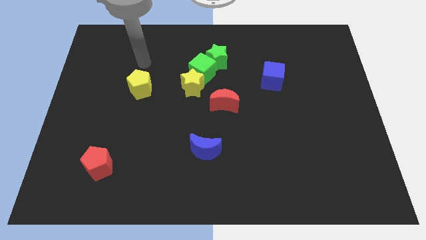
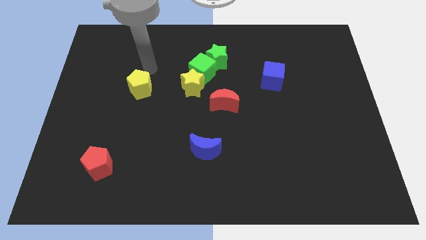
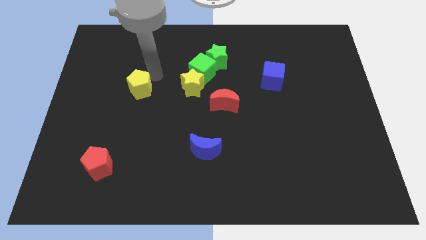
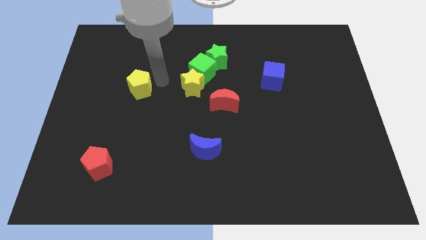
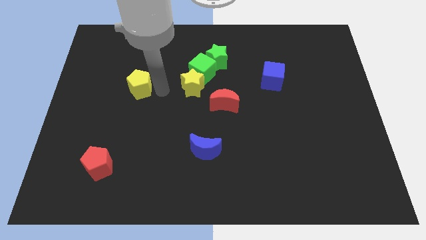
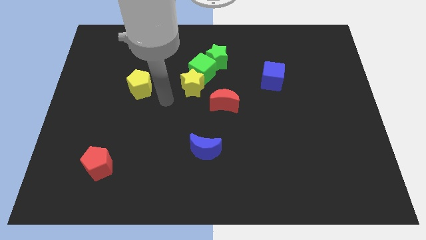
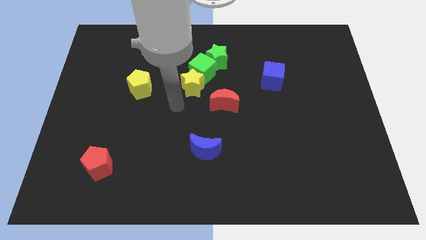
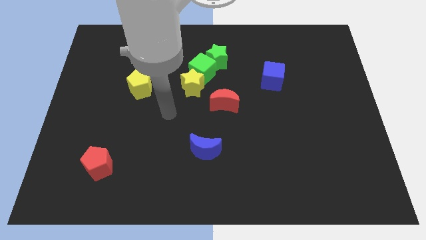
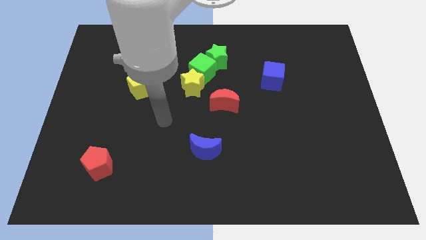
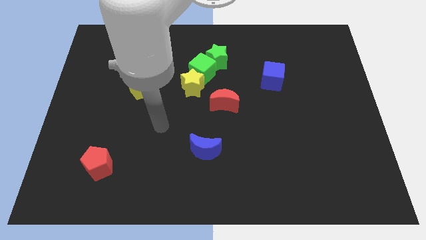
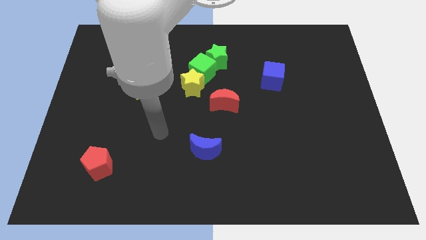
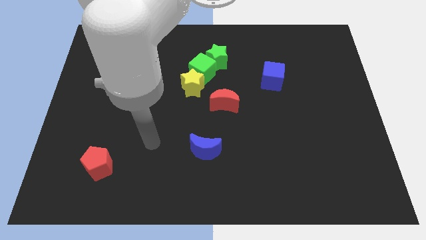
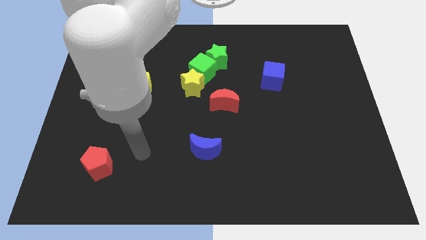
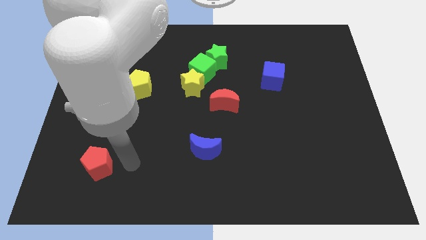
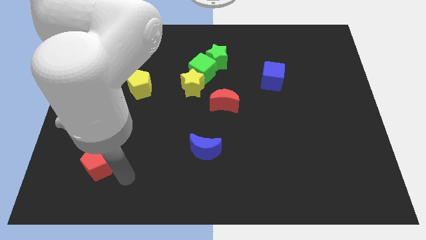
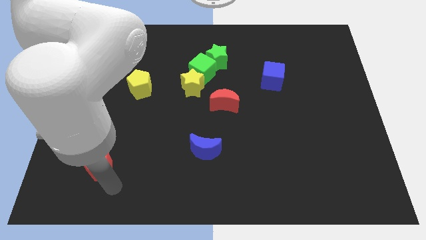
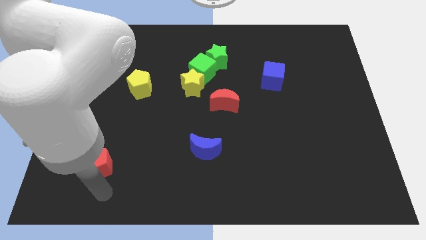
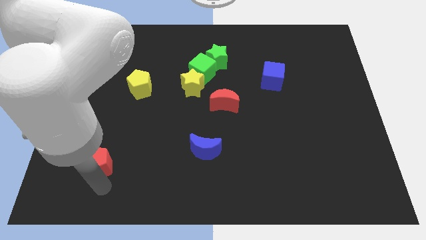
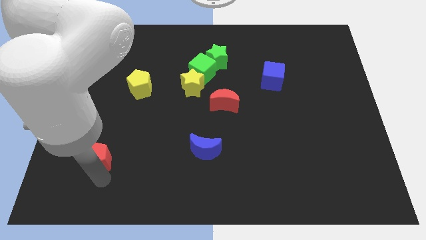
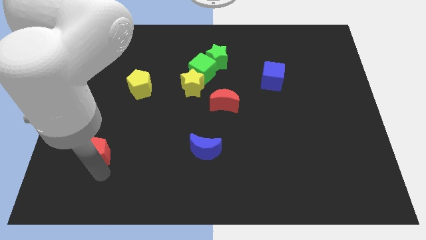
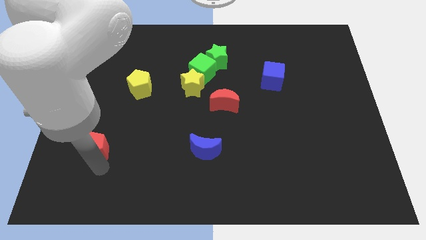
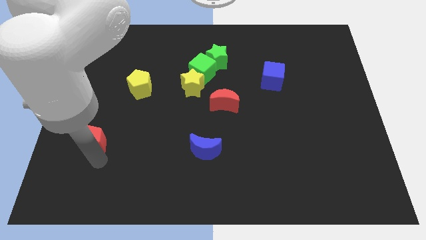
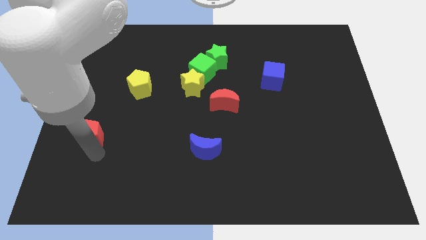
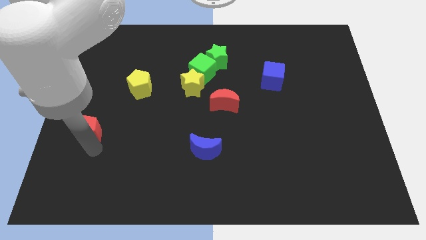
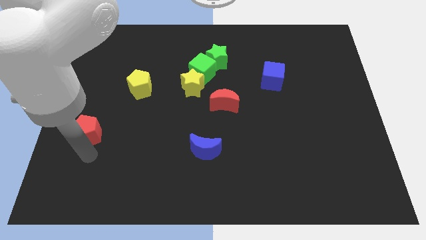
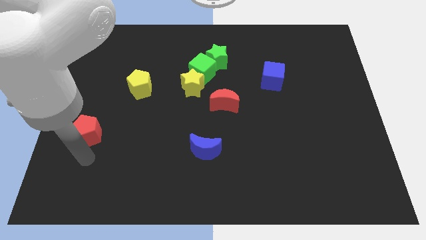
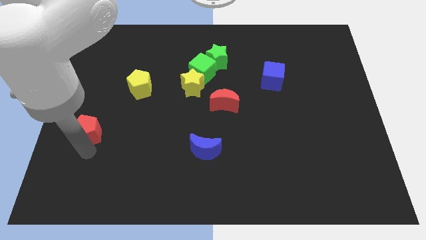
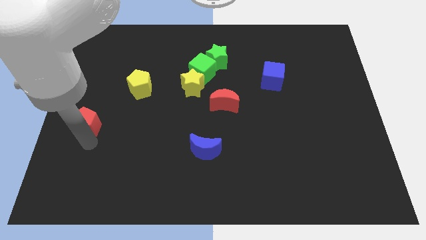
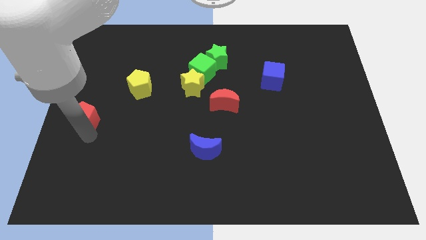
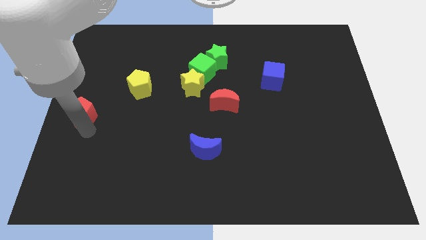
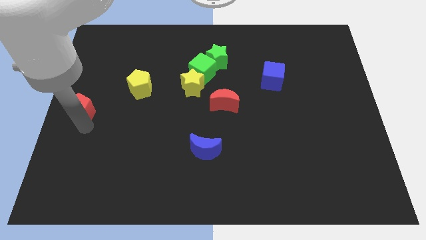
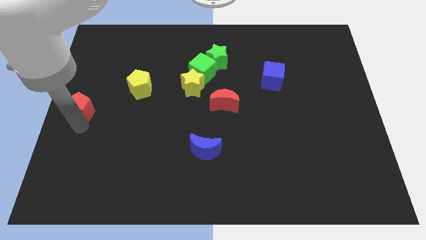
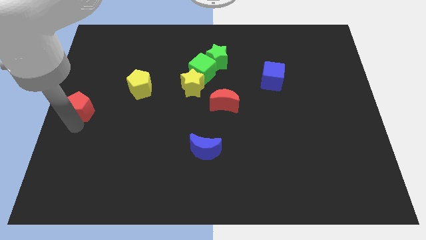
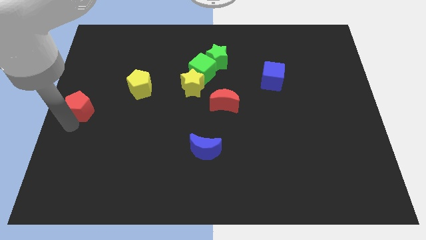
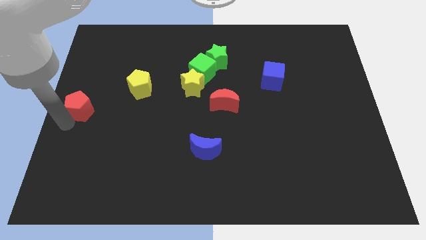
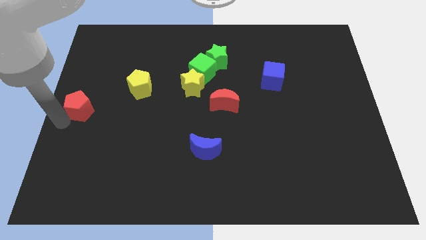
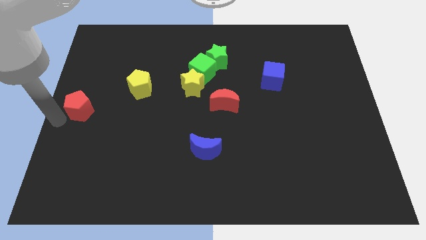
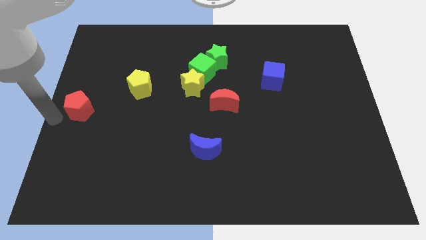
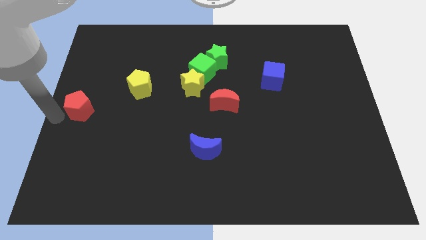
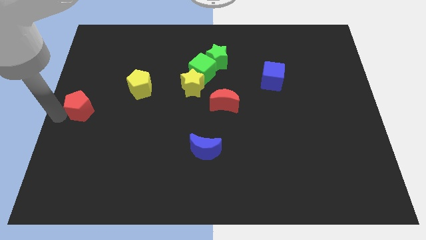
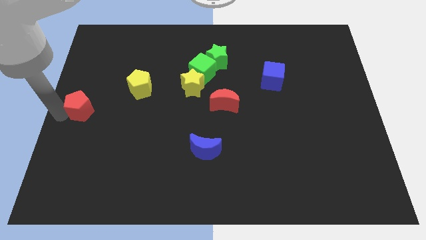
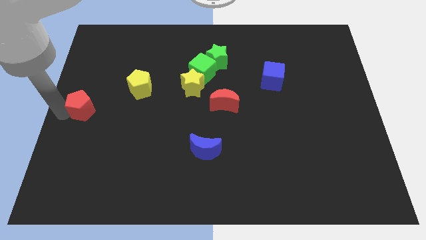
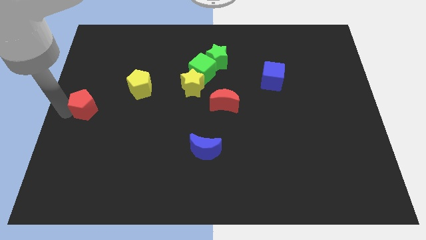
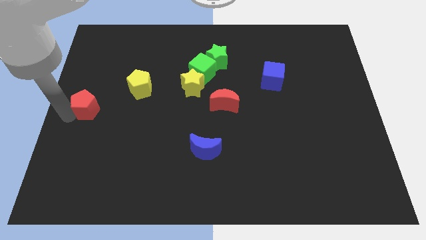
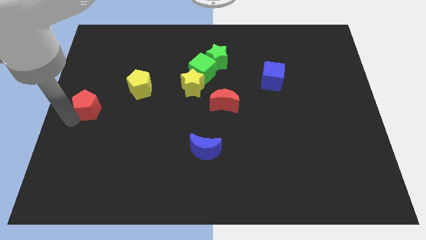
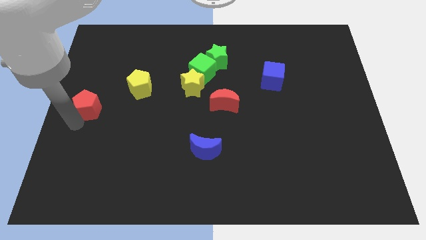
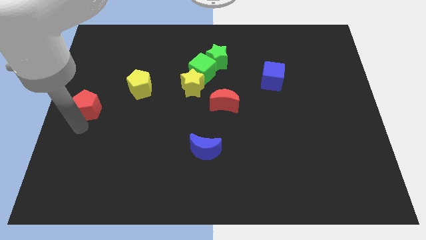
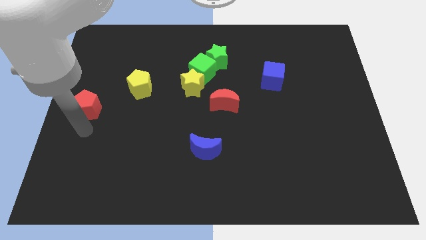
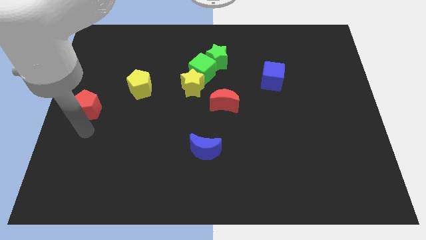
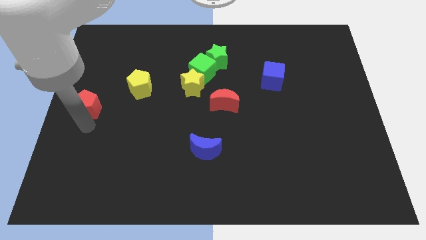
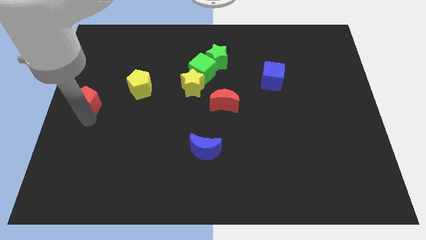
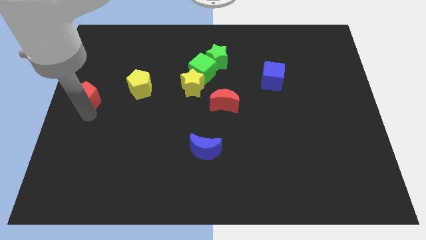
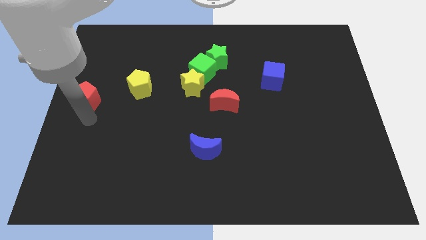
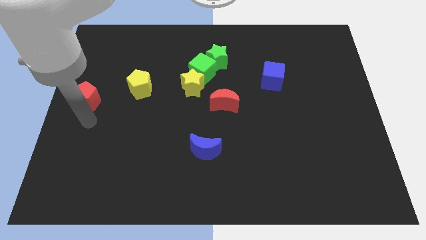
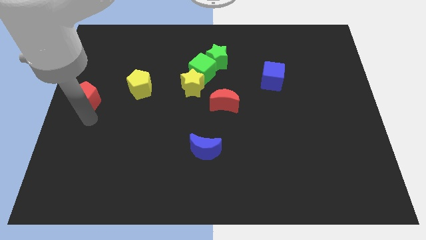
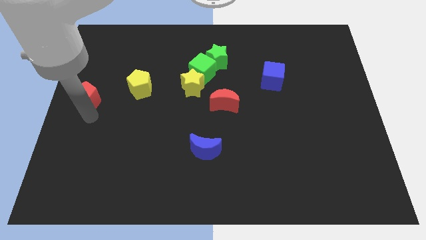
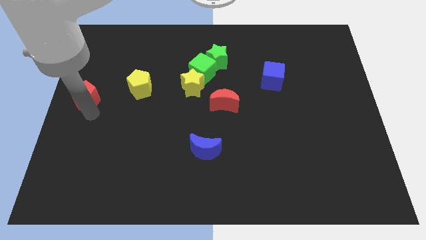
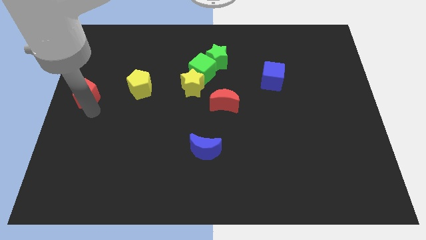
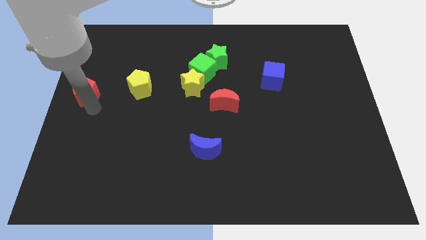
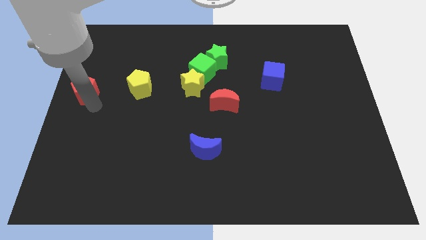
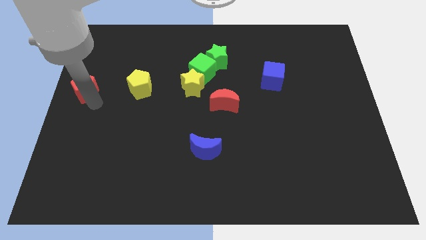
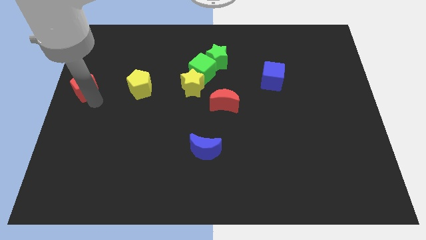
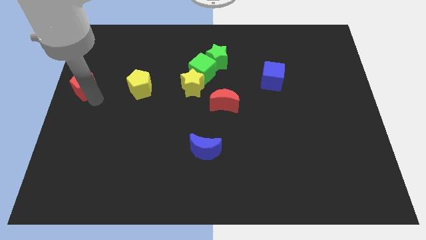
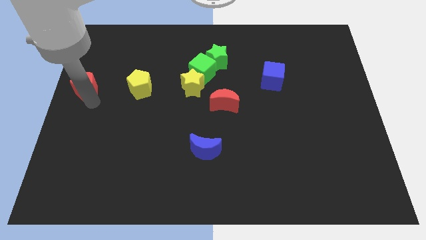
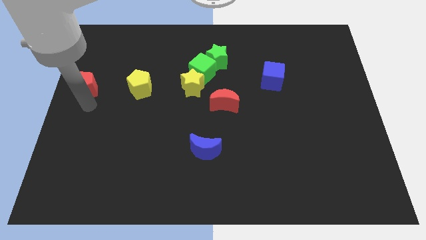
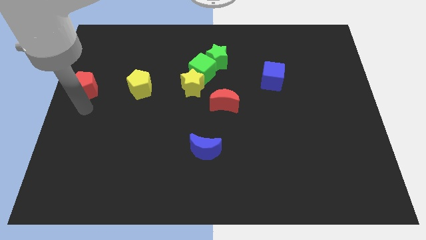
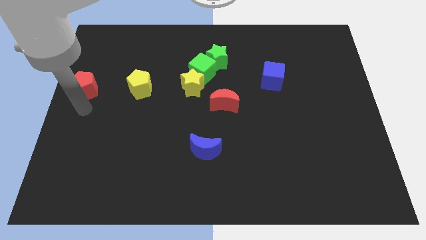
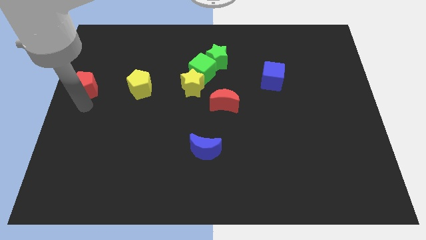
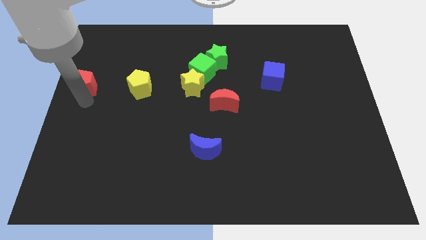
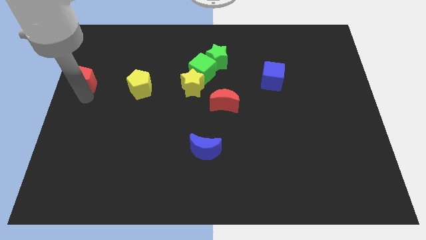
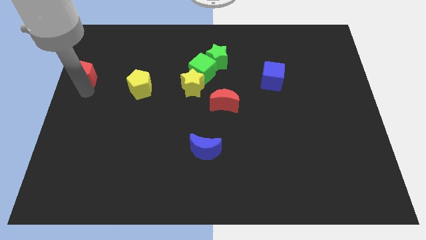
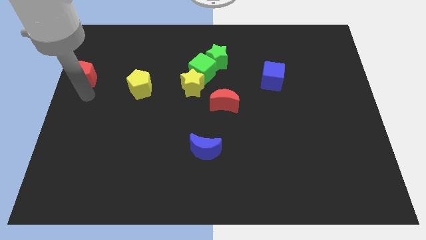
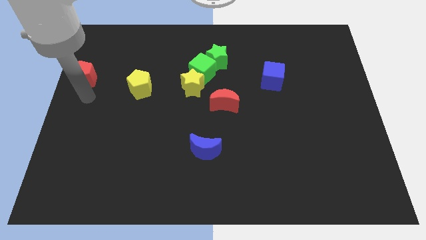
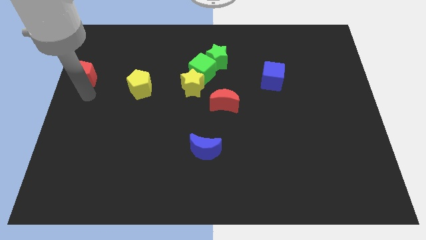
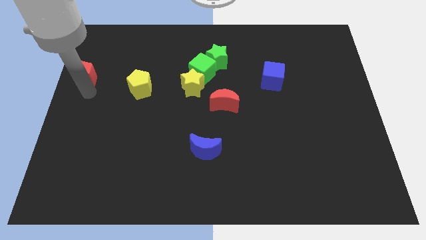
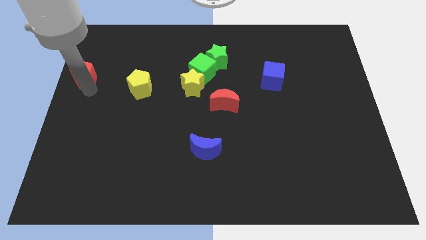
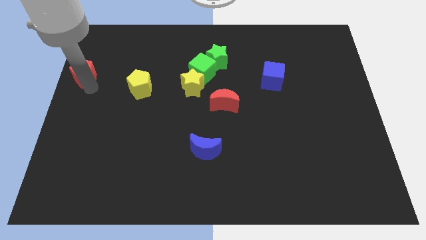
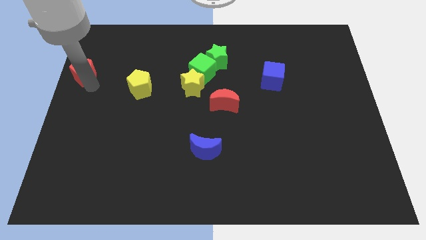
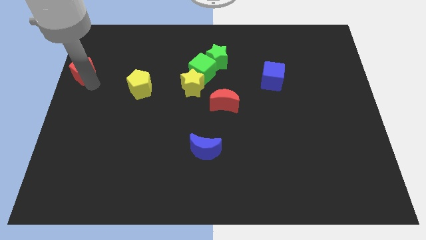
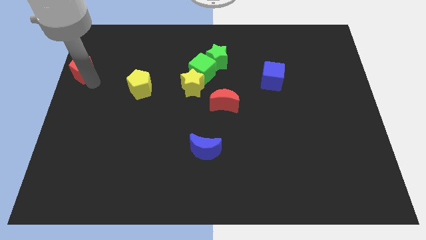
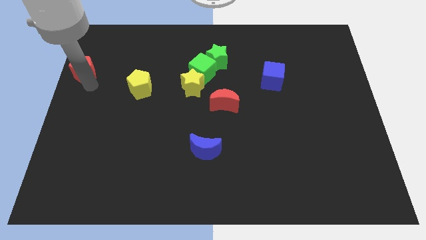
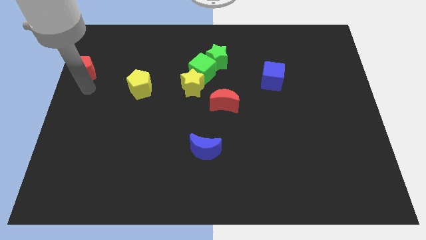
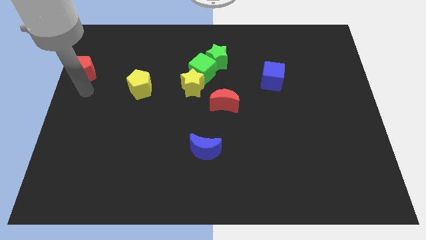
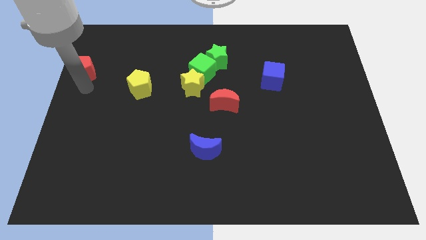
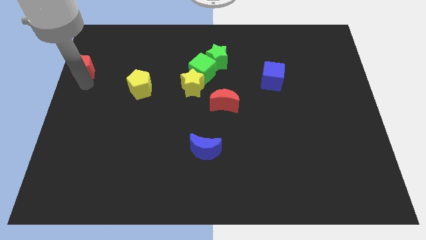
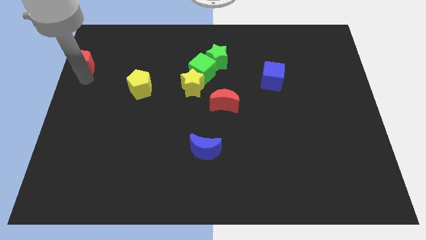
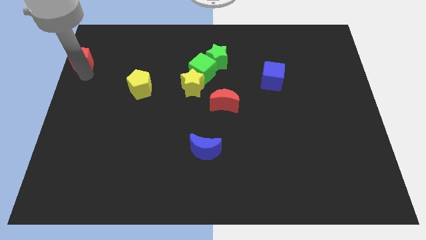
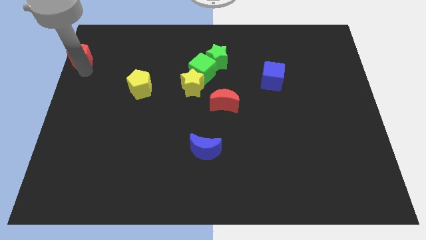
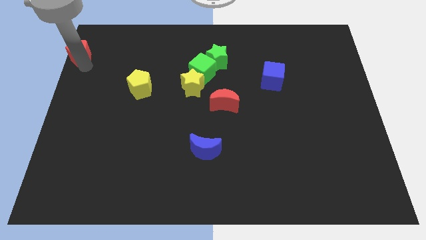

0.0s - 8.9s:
push the red pentagon to the top left corner
